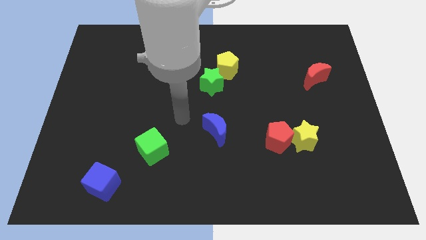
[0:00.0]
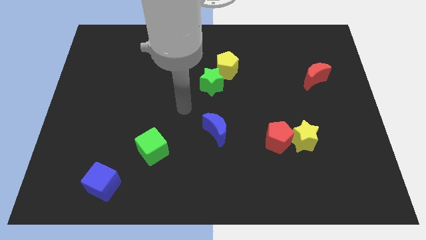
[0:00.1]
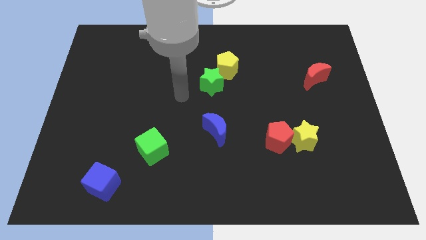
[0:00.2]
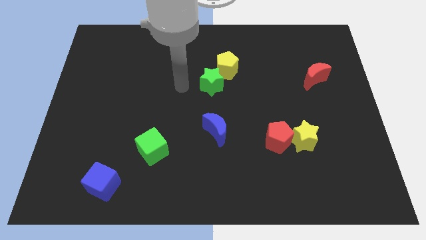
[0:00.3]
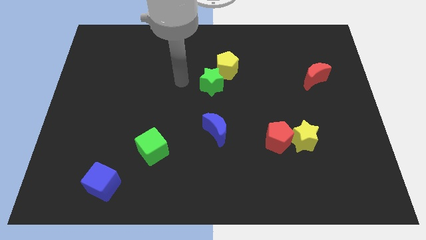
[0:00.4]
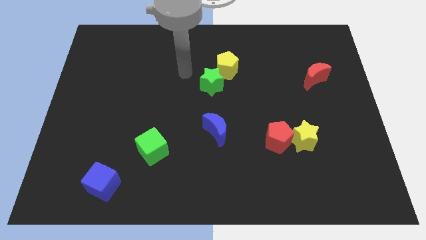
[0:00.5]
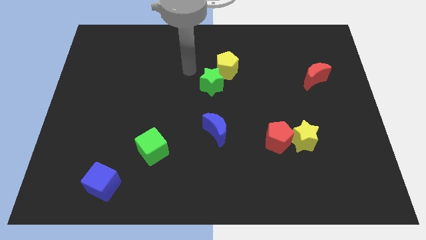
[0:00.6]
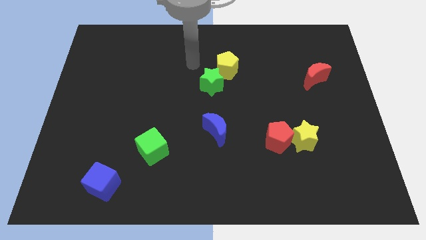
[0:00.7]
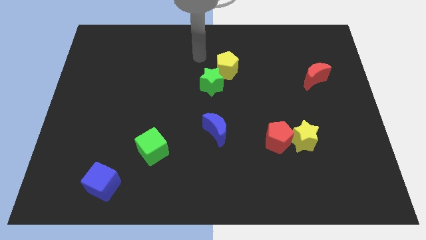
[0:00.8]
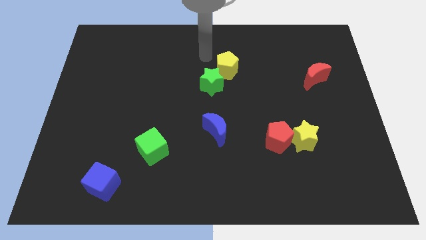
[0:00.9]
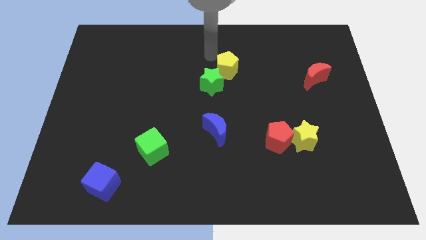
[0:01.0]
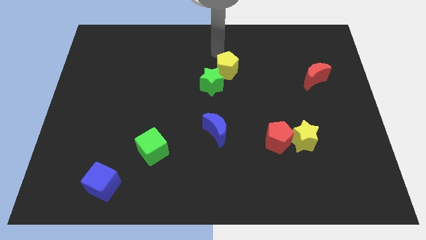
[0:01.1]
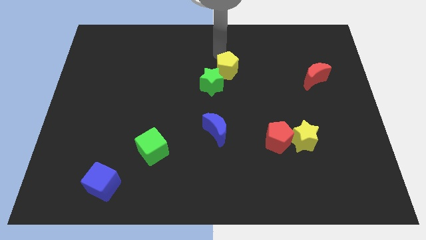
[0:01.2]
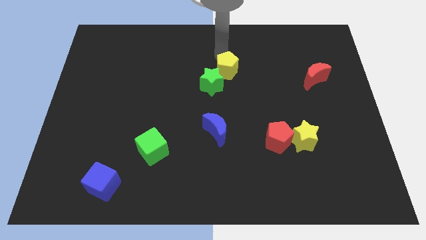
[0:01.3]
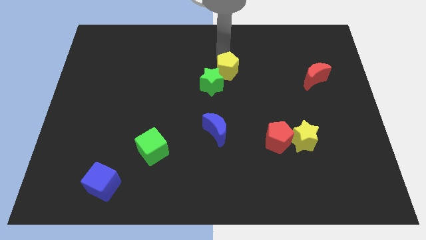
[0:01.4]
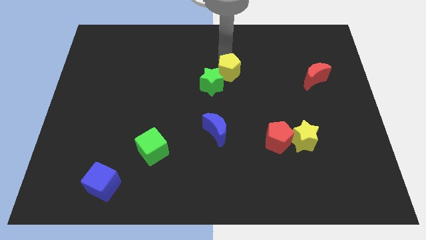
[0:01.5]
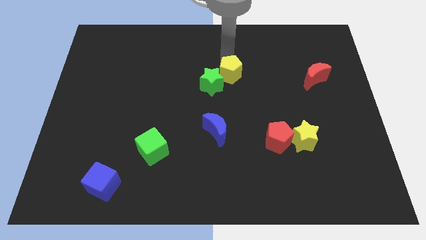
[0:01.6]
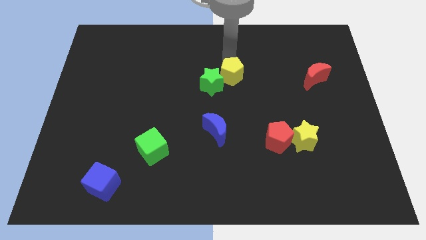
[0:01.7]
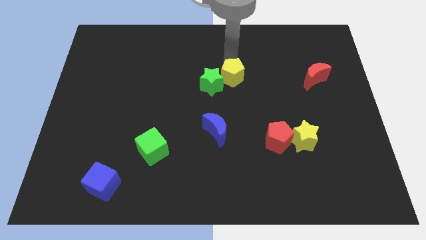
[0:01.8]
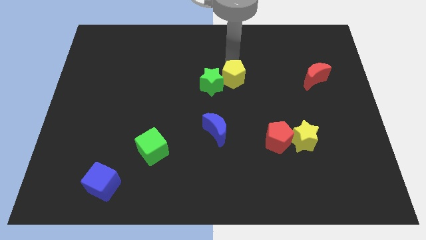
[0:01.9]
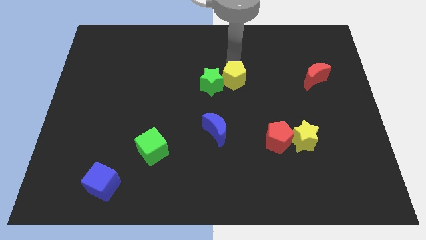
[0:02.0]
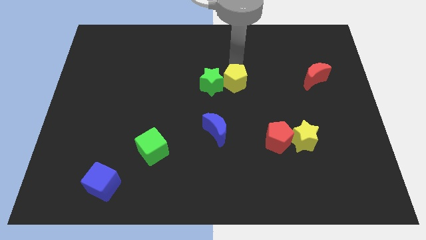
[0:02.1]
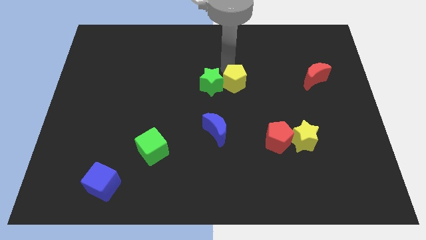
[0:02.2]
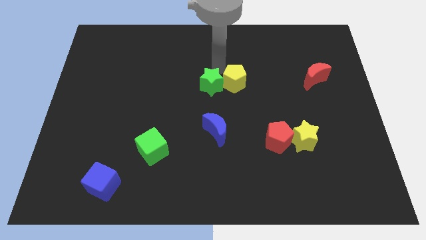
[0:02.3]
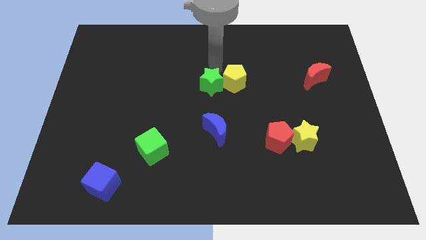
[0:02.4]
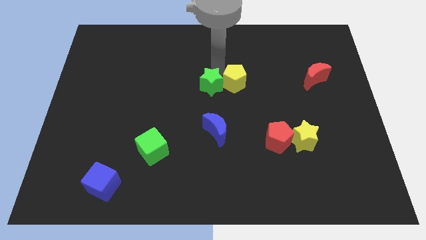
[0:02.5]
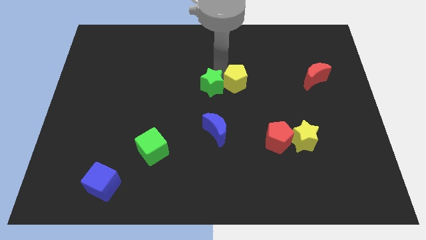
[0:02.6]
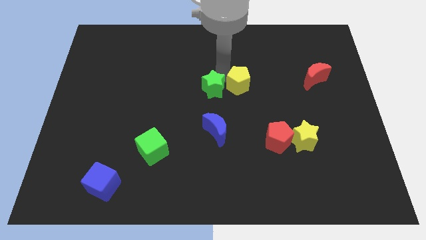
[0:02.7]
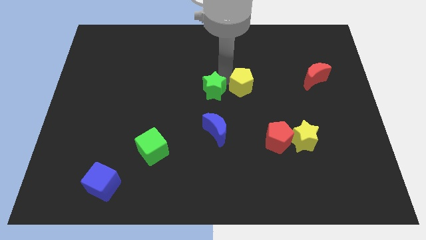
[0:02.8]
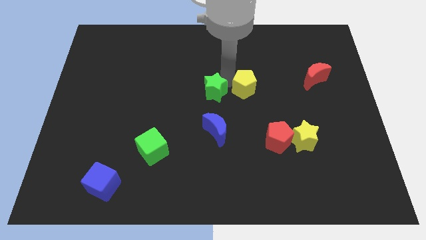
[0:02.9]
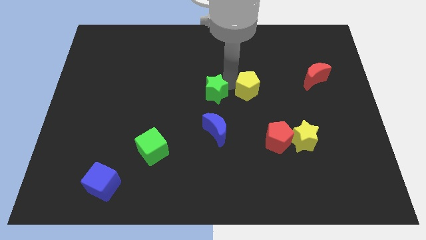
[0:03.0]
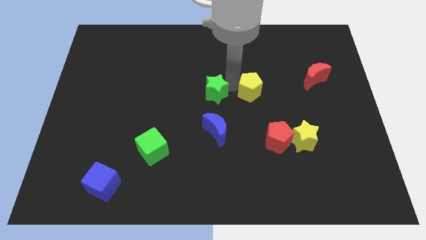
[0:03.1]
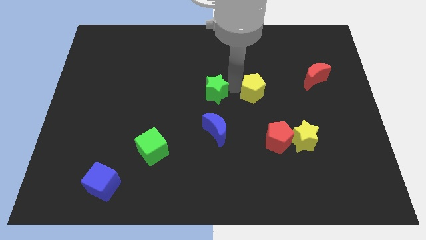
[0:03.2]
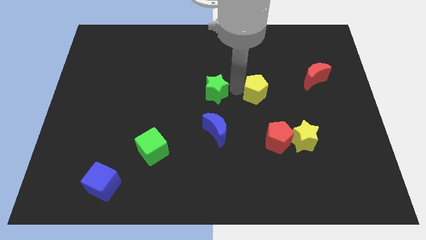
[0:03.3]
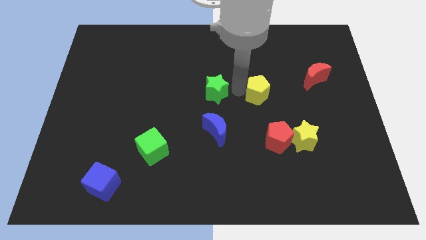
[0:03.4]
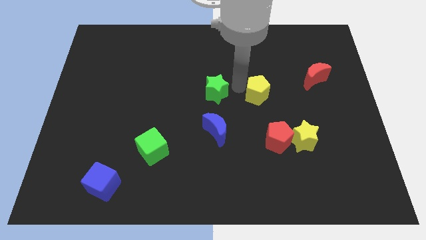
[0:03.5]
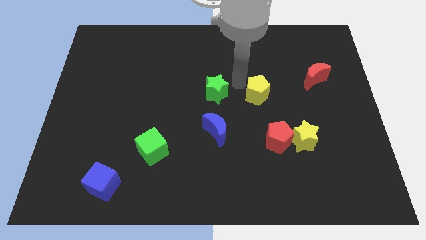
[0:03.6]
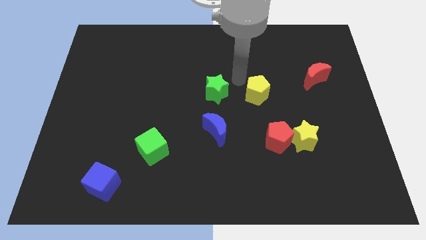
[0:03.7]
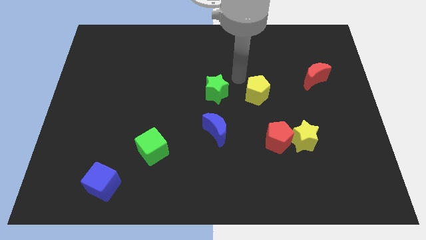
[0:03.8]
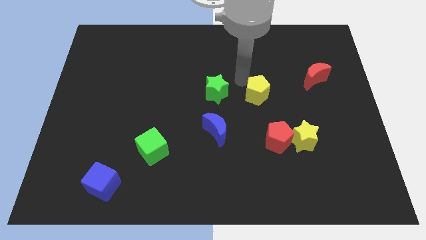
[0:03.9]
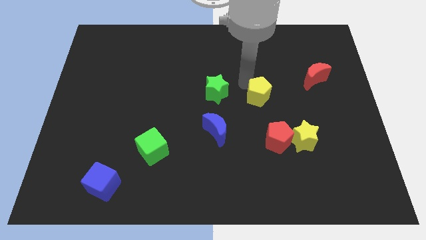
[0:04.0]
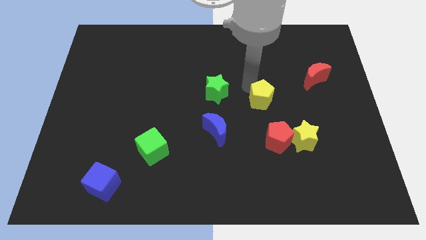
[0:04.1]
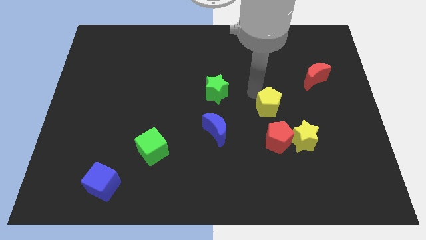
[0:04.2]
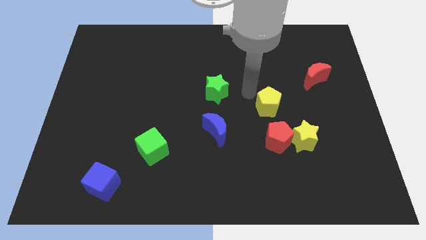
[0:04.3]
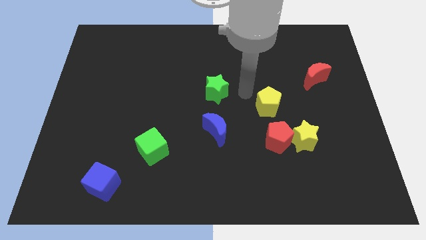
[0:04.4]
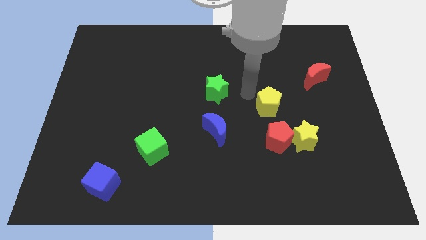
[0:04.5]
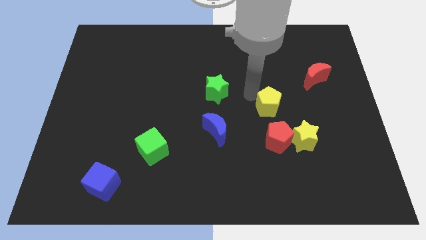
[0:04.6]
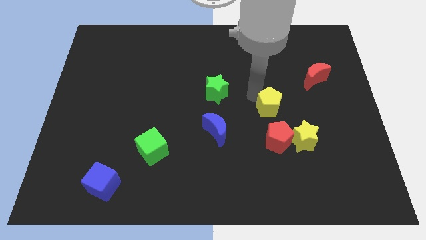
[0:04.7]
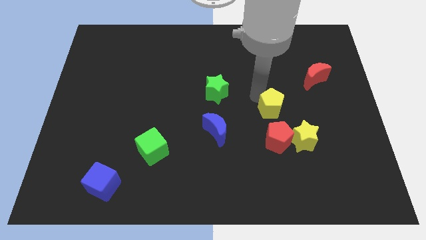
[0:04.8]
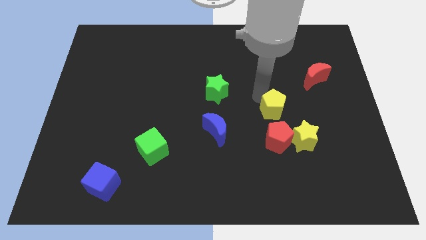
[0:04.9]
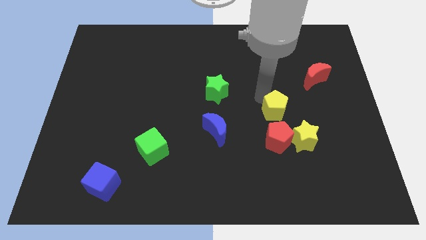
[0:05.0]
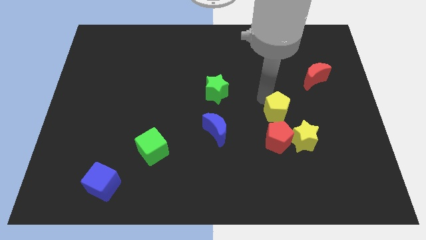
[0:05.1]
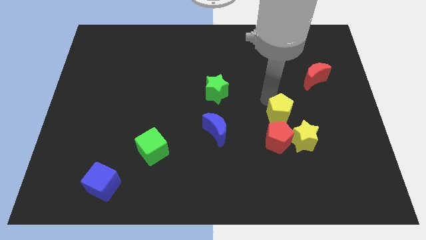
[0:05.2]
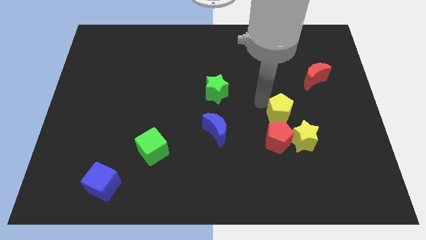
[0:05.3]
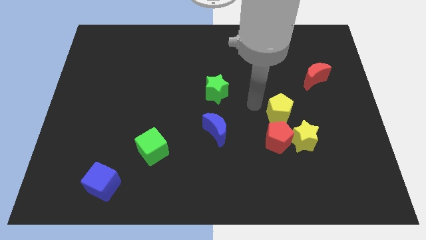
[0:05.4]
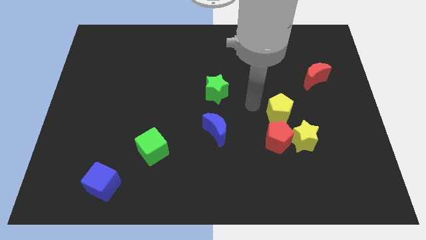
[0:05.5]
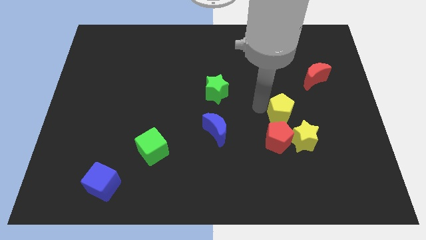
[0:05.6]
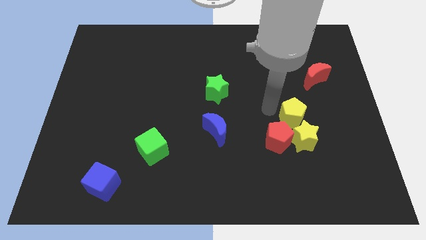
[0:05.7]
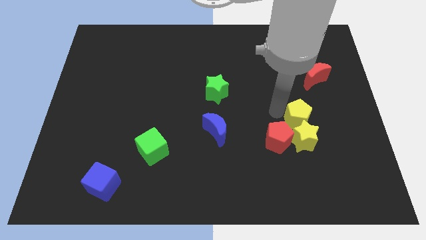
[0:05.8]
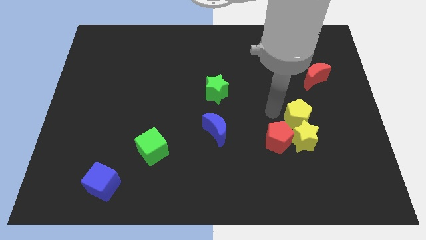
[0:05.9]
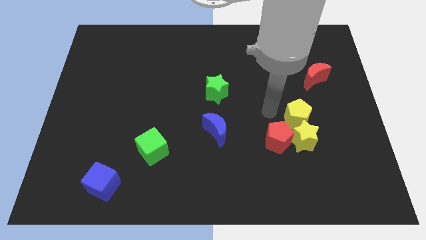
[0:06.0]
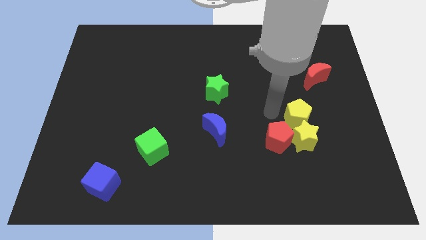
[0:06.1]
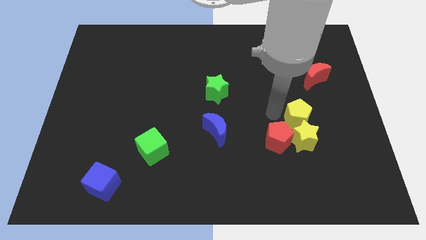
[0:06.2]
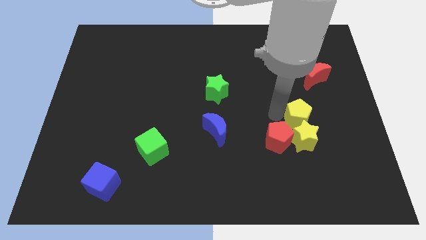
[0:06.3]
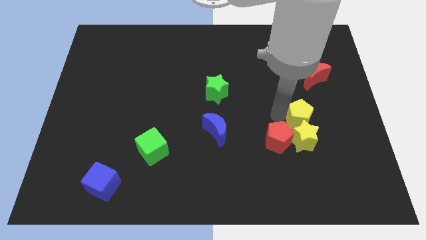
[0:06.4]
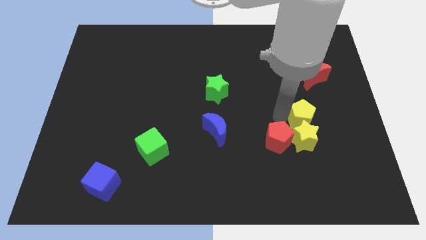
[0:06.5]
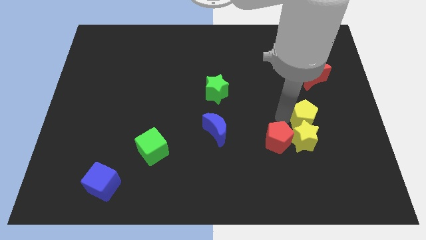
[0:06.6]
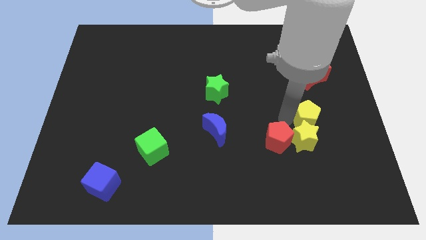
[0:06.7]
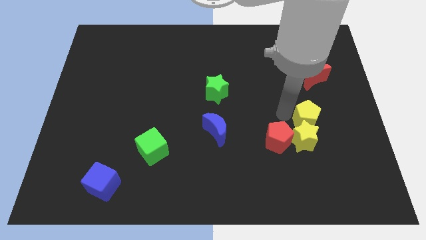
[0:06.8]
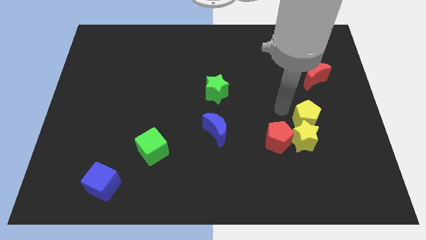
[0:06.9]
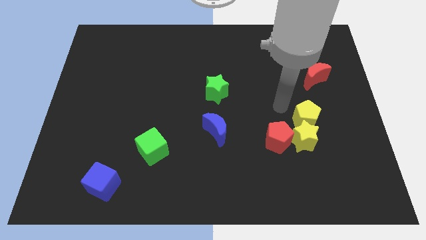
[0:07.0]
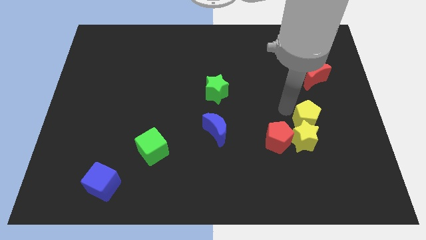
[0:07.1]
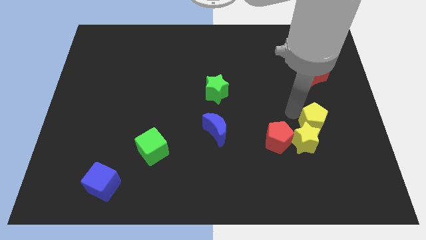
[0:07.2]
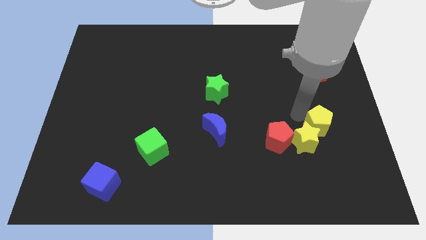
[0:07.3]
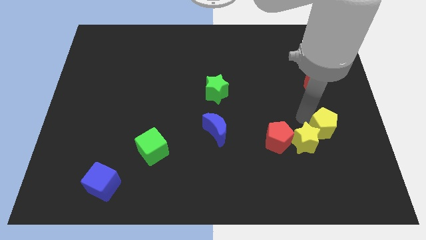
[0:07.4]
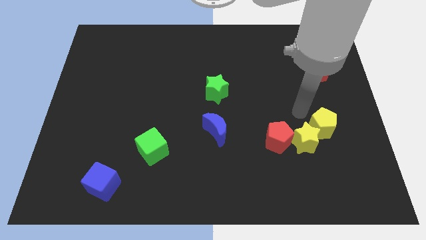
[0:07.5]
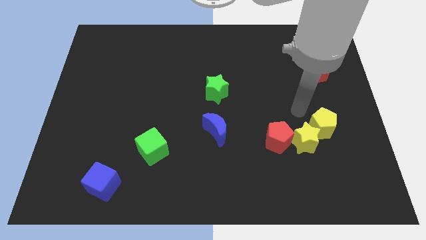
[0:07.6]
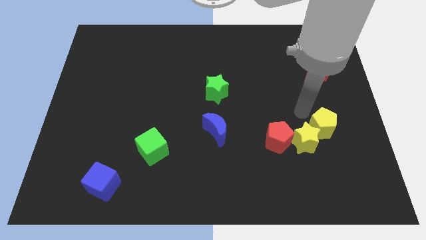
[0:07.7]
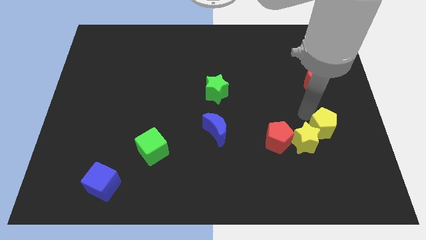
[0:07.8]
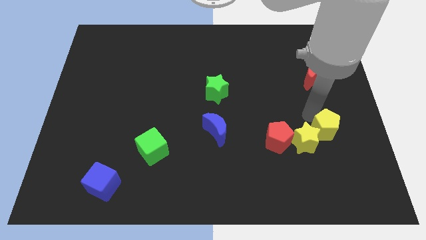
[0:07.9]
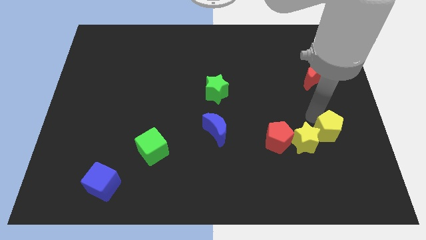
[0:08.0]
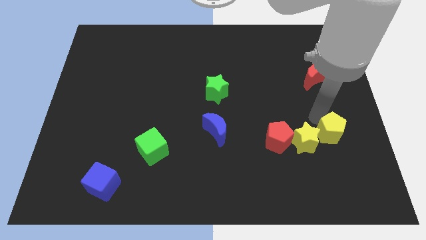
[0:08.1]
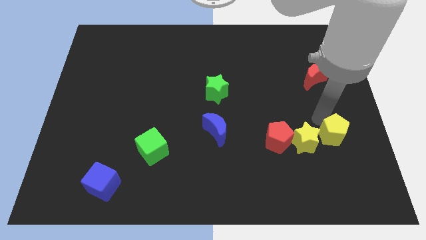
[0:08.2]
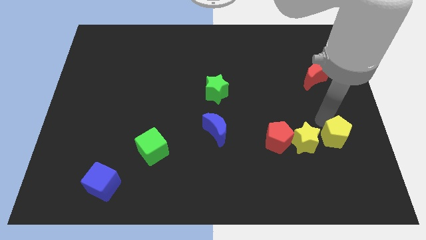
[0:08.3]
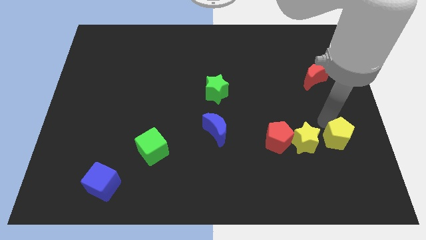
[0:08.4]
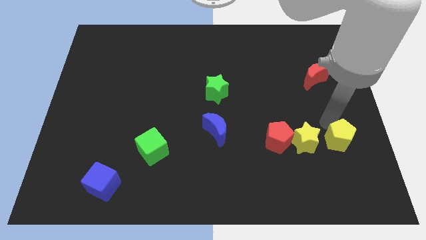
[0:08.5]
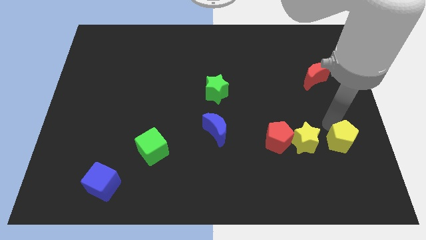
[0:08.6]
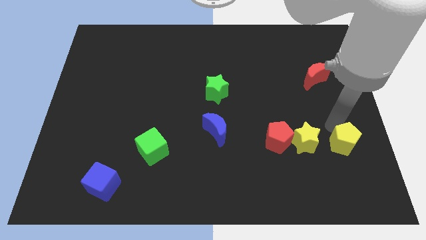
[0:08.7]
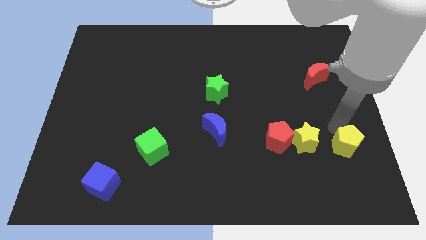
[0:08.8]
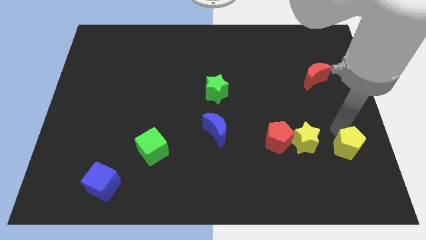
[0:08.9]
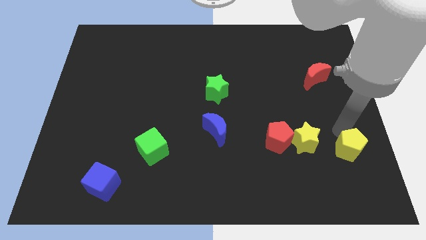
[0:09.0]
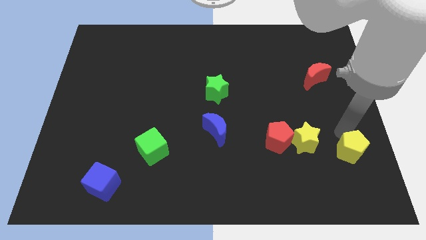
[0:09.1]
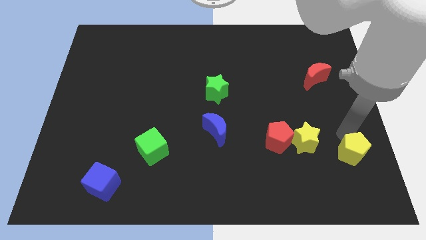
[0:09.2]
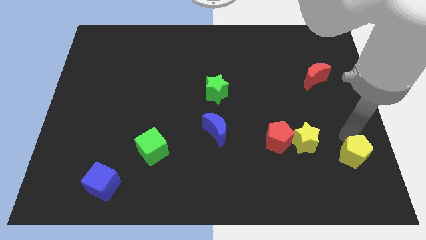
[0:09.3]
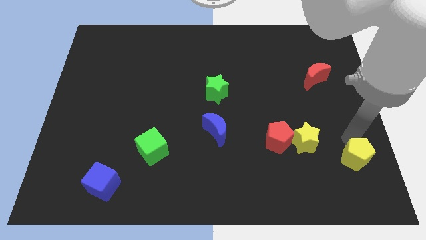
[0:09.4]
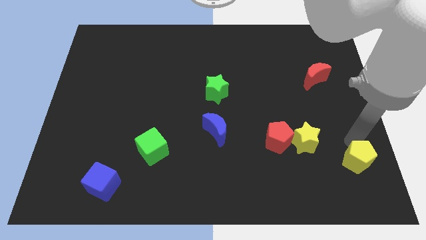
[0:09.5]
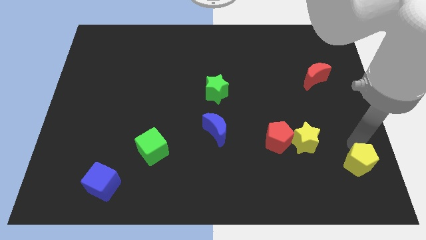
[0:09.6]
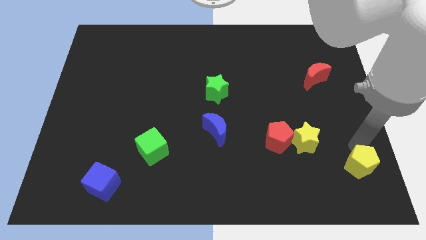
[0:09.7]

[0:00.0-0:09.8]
put the yellow pentagon to the bottom right
